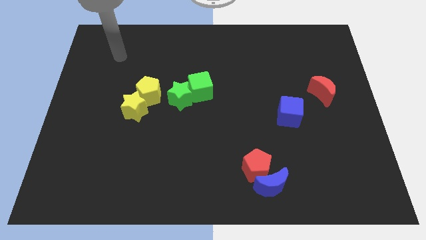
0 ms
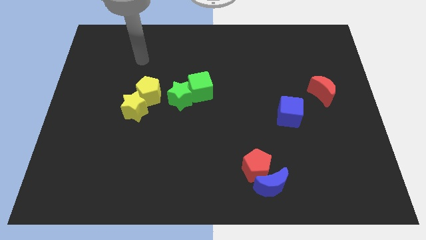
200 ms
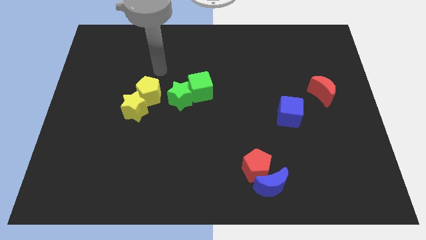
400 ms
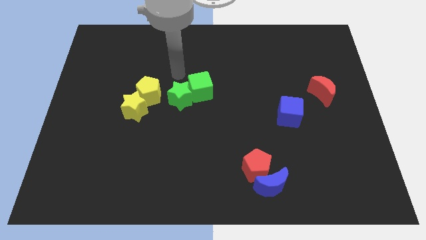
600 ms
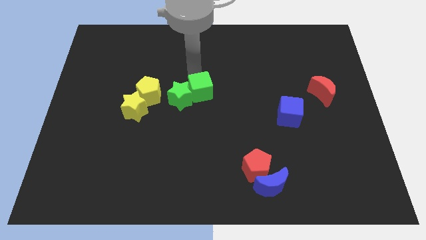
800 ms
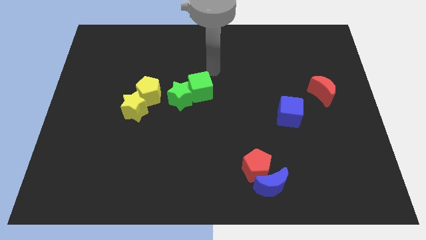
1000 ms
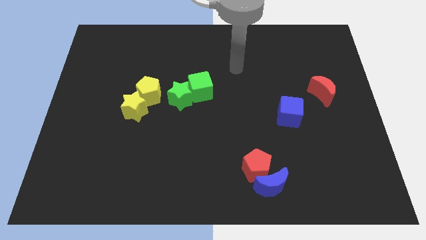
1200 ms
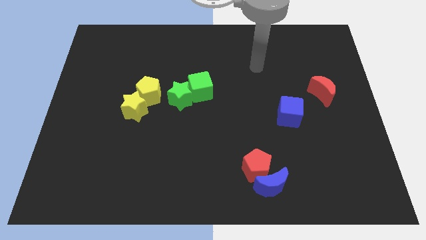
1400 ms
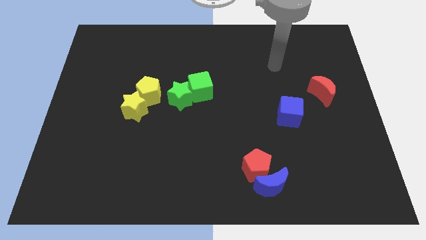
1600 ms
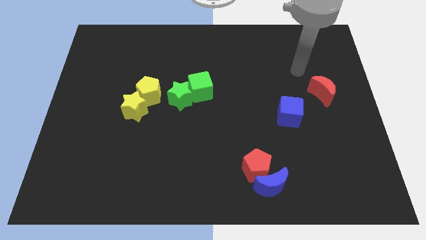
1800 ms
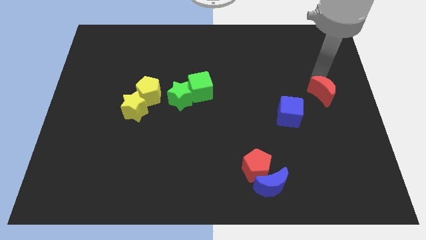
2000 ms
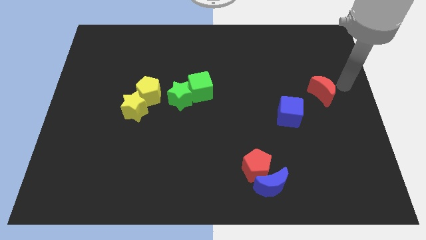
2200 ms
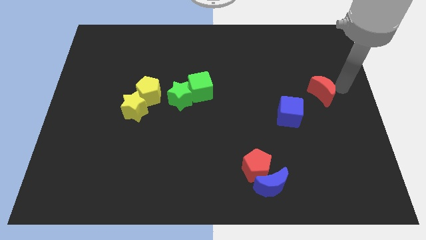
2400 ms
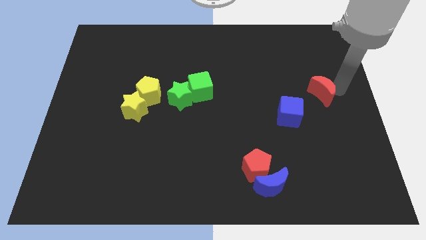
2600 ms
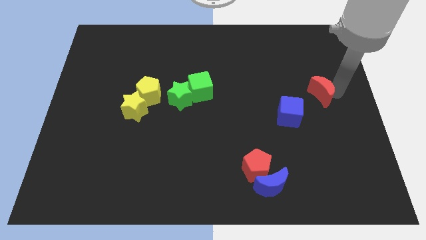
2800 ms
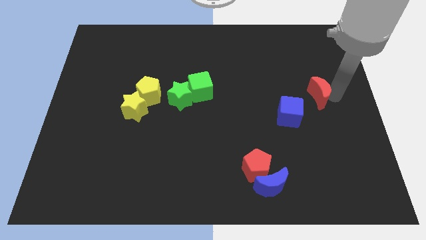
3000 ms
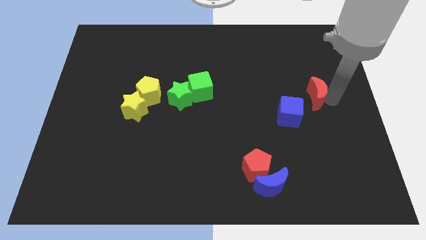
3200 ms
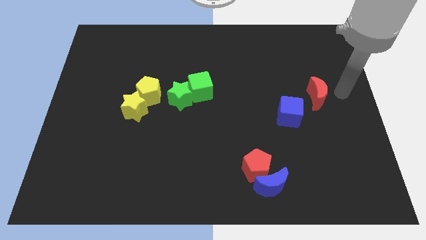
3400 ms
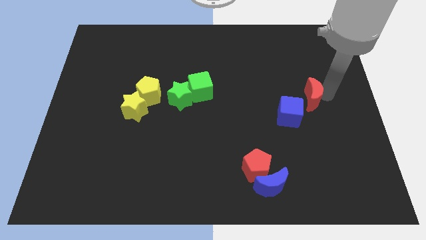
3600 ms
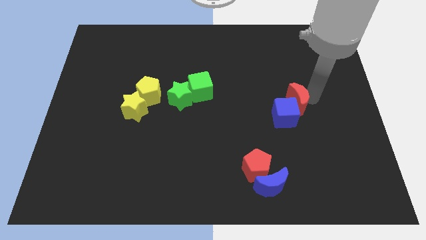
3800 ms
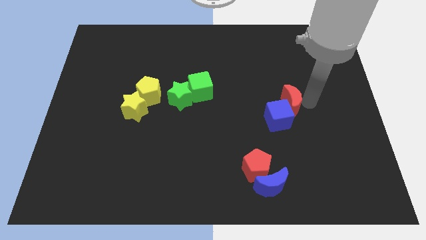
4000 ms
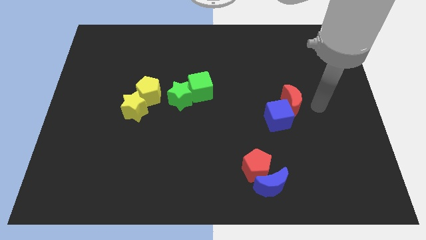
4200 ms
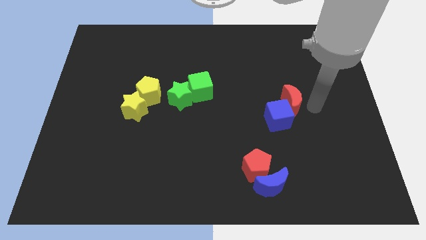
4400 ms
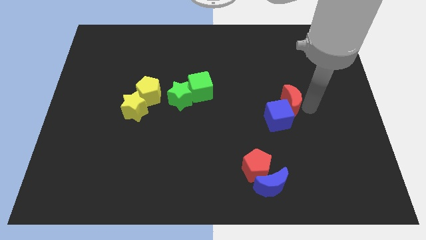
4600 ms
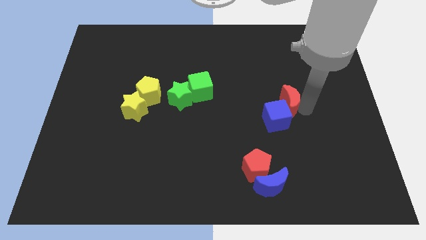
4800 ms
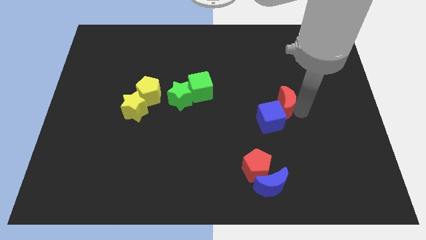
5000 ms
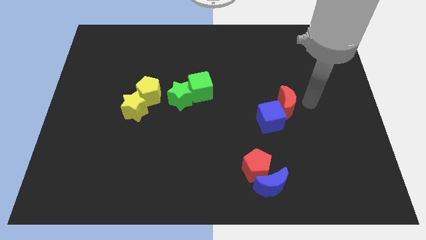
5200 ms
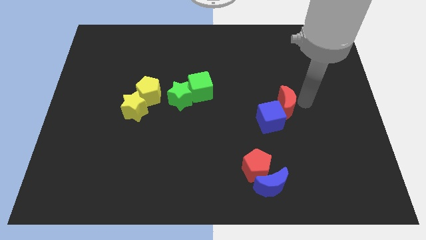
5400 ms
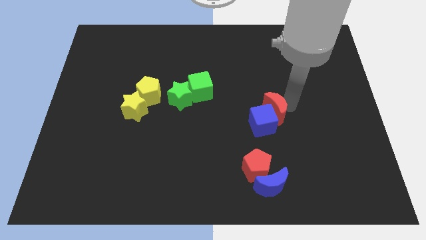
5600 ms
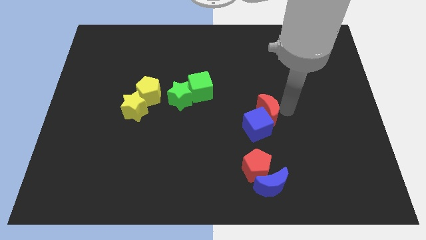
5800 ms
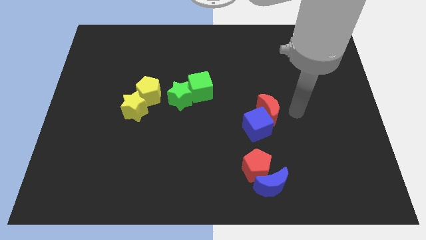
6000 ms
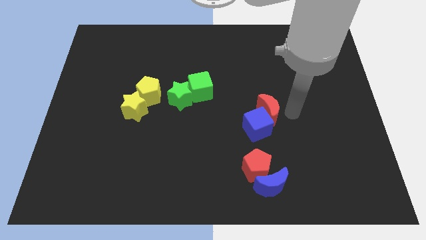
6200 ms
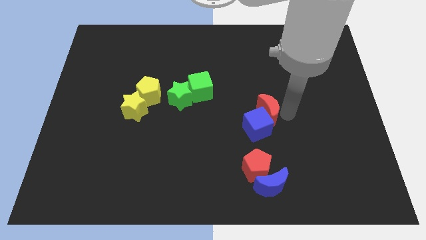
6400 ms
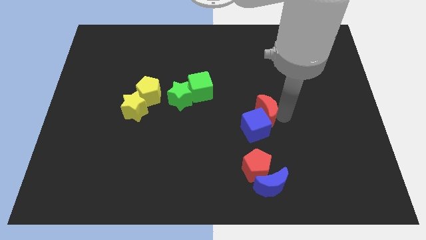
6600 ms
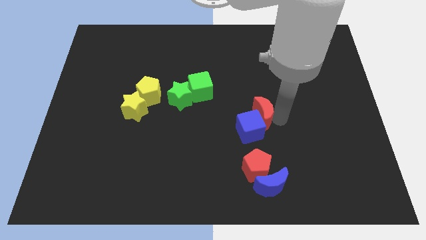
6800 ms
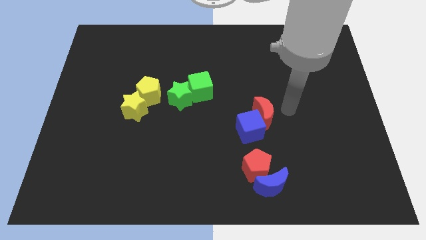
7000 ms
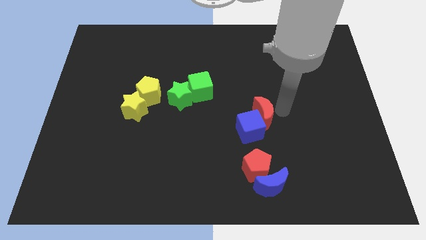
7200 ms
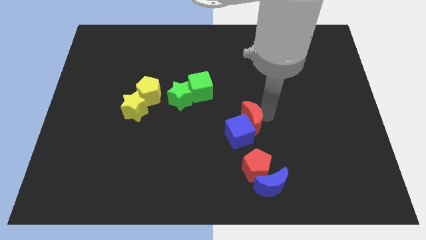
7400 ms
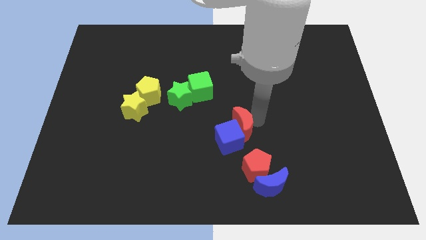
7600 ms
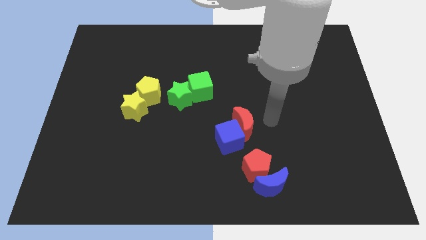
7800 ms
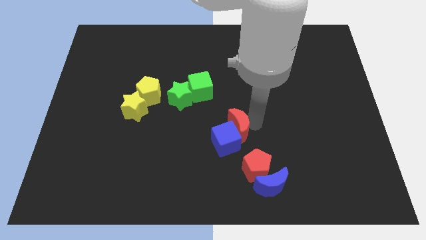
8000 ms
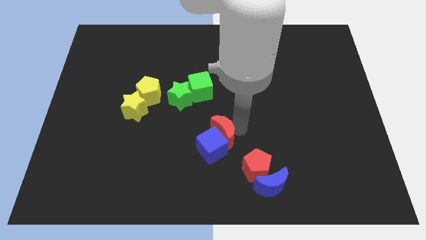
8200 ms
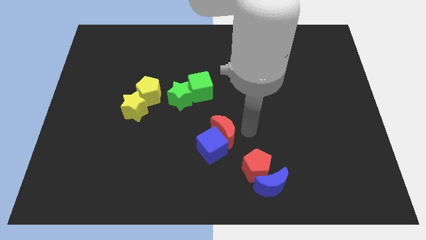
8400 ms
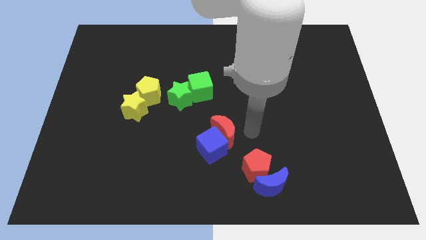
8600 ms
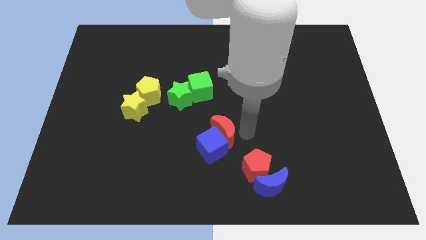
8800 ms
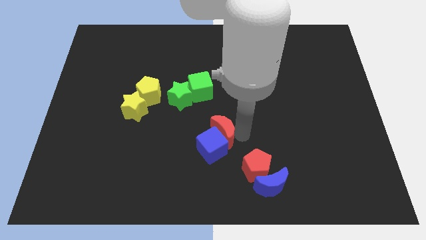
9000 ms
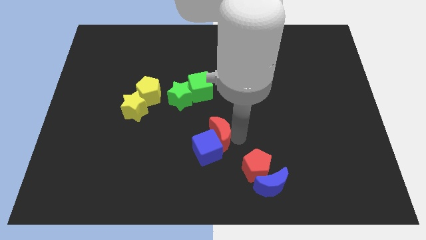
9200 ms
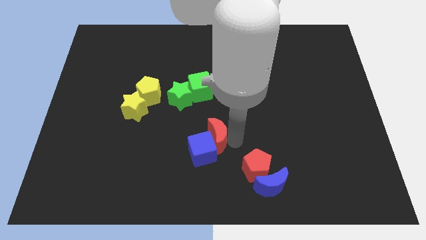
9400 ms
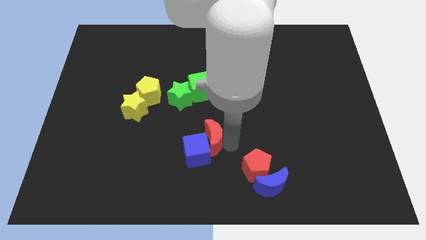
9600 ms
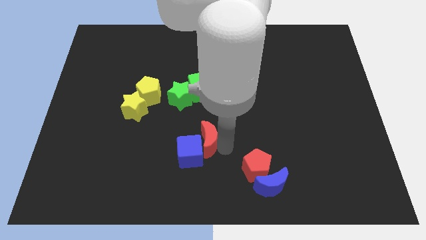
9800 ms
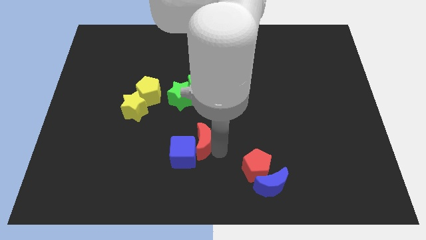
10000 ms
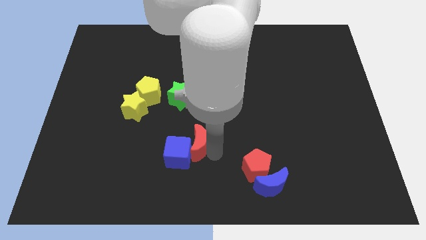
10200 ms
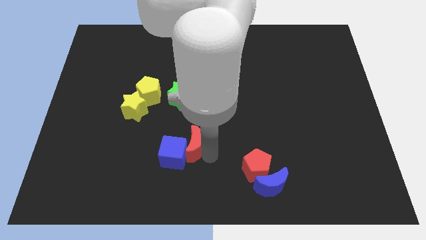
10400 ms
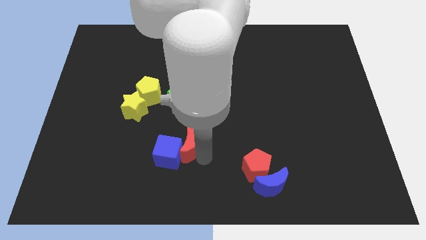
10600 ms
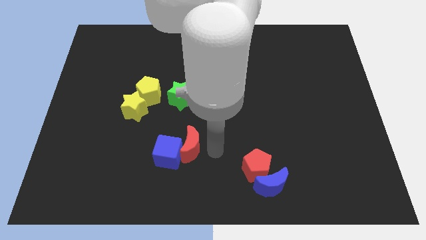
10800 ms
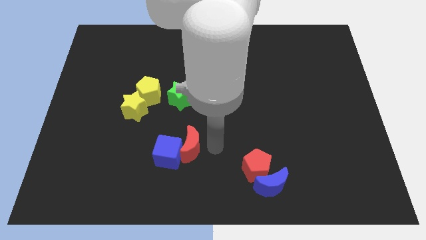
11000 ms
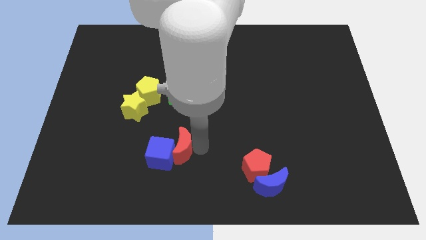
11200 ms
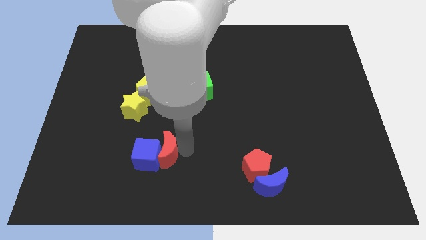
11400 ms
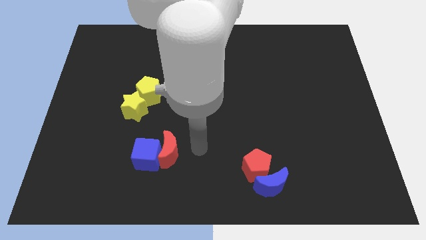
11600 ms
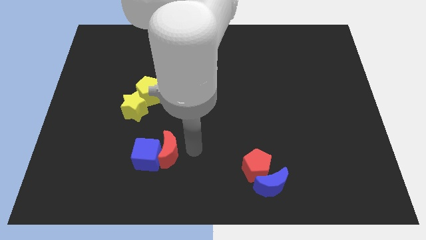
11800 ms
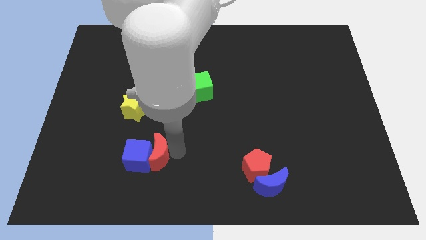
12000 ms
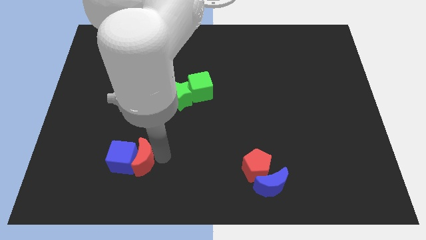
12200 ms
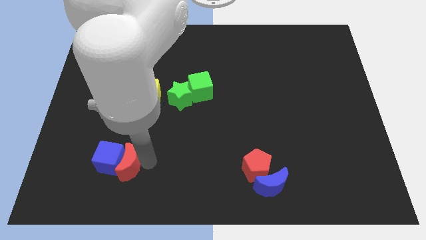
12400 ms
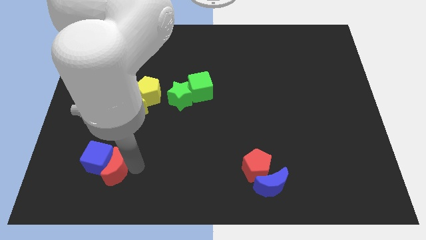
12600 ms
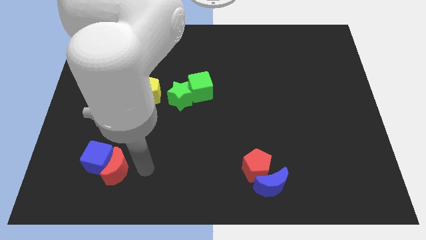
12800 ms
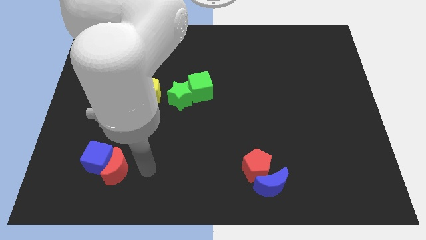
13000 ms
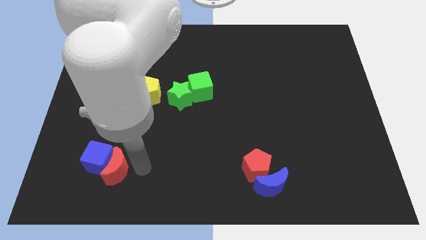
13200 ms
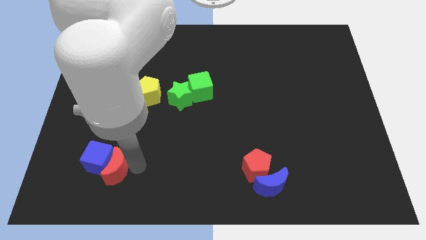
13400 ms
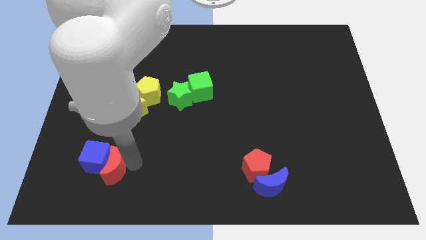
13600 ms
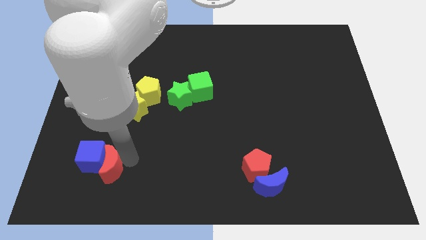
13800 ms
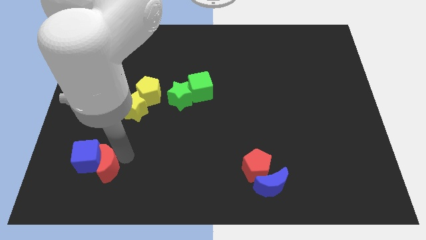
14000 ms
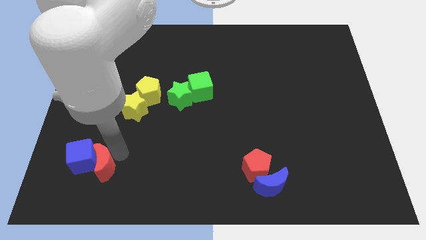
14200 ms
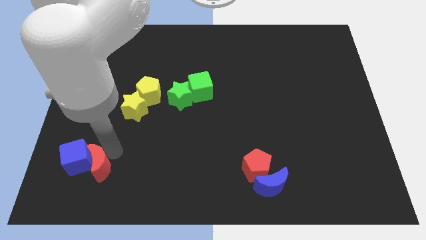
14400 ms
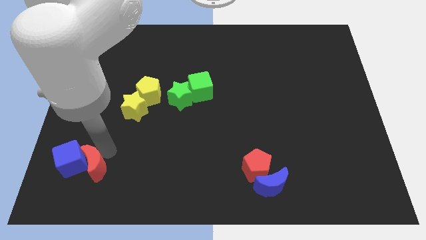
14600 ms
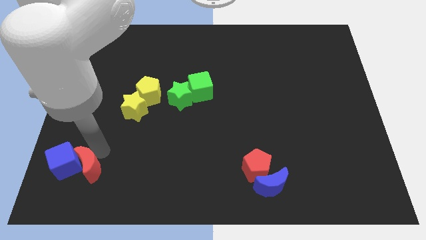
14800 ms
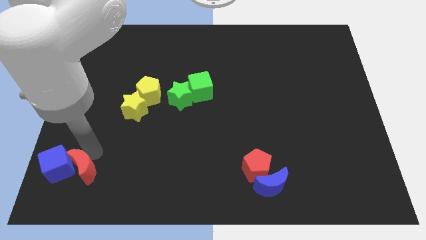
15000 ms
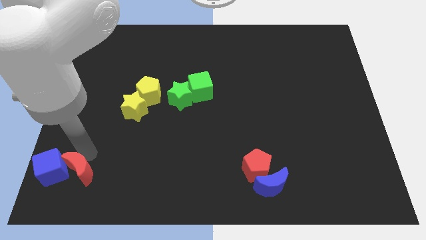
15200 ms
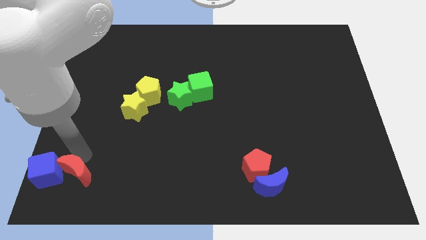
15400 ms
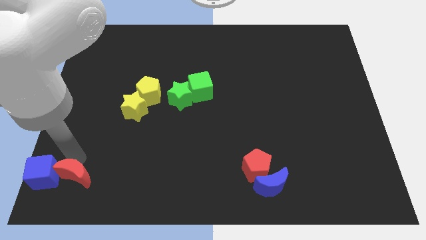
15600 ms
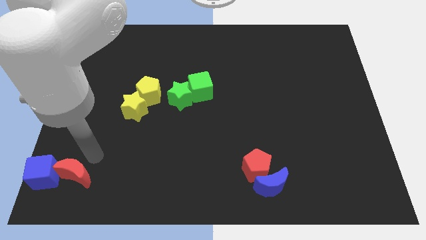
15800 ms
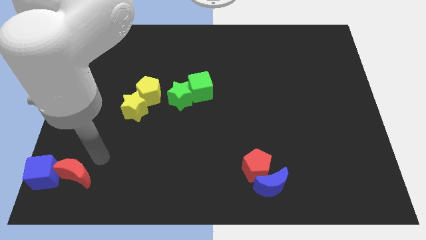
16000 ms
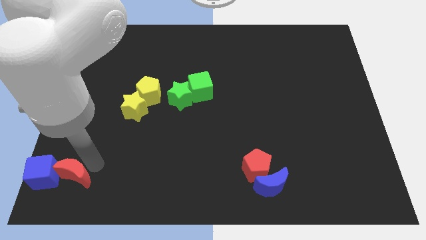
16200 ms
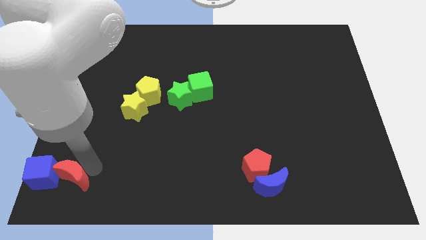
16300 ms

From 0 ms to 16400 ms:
move the red moon to the bottom left of the board
